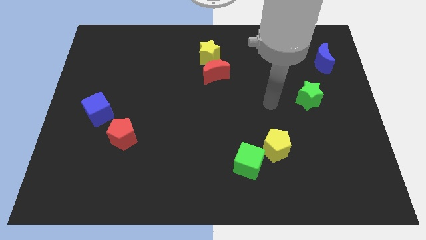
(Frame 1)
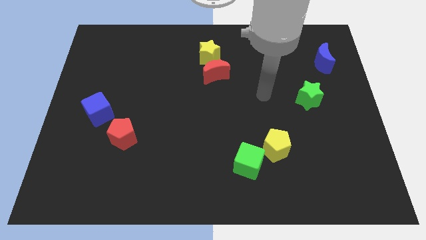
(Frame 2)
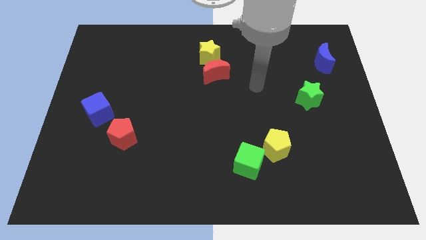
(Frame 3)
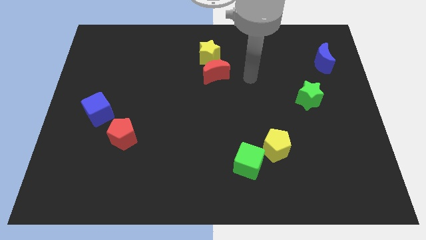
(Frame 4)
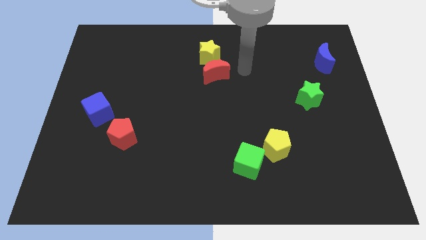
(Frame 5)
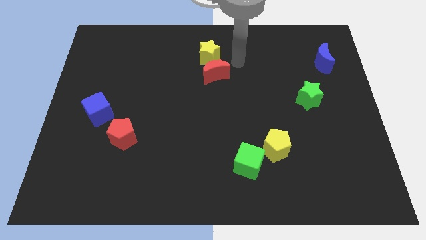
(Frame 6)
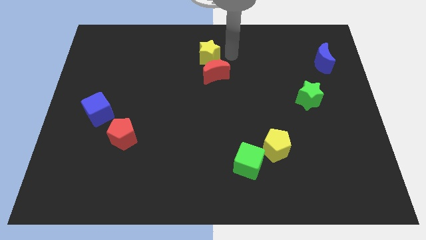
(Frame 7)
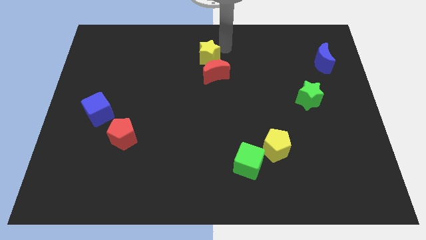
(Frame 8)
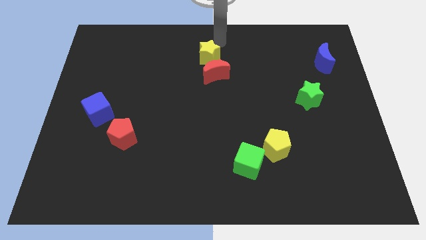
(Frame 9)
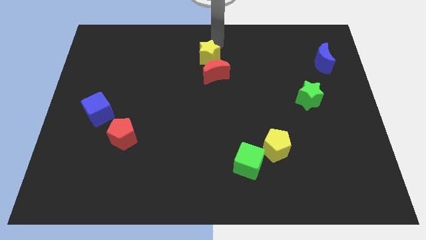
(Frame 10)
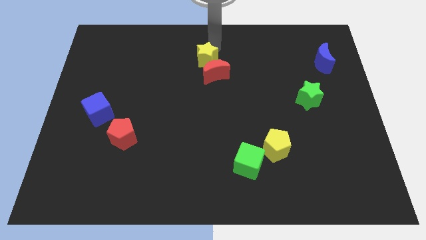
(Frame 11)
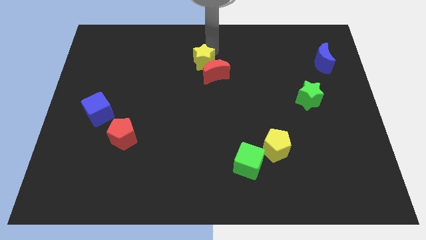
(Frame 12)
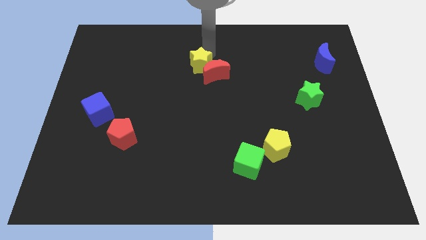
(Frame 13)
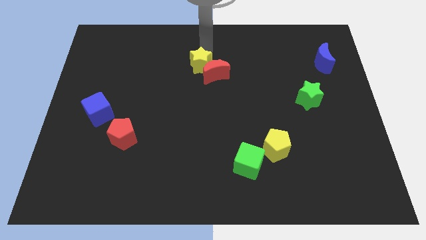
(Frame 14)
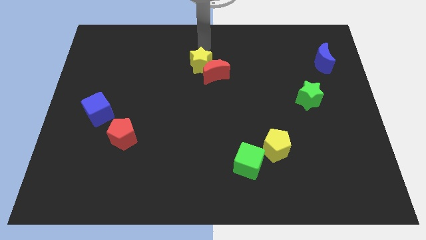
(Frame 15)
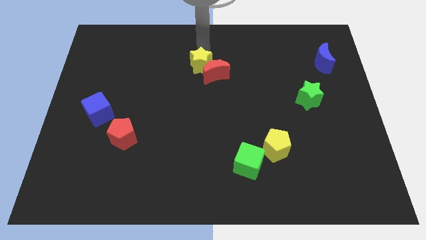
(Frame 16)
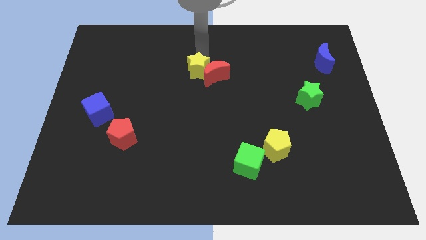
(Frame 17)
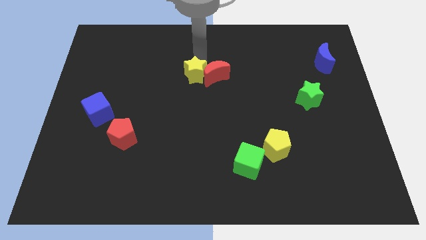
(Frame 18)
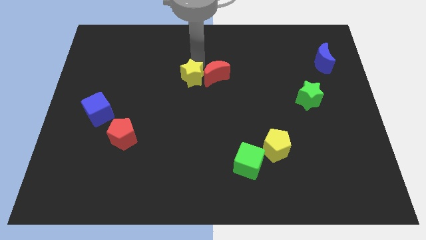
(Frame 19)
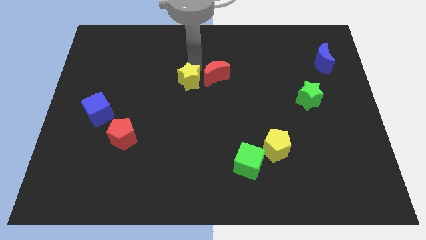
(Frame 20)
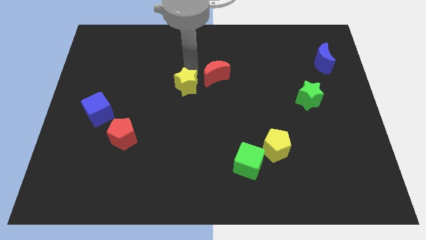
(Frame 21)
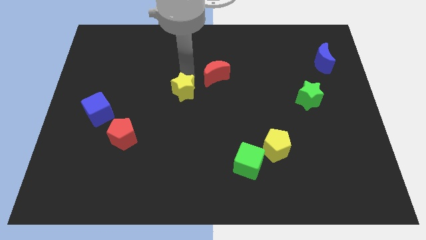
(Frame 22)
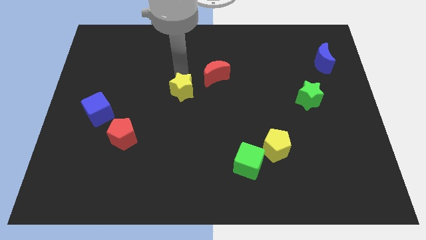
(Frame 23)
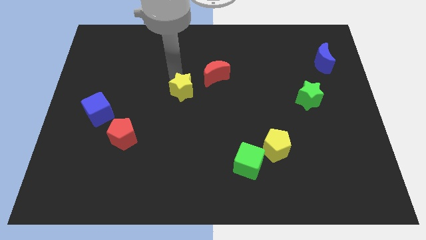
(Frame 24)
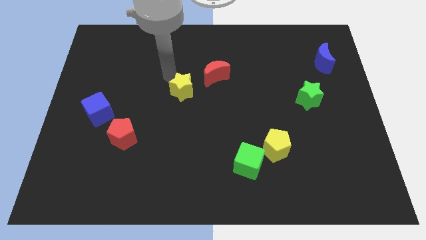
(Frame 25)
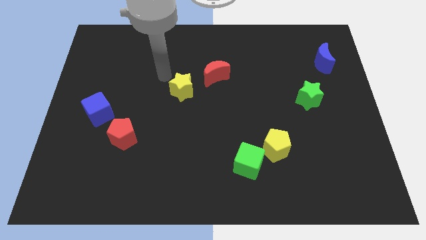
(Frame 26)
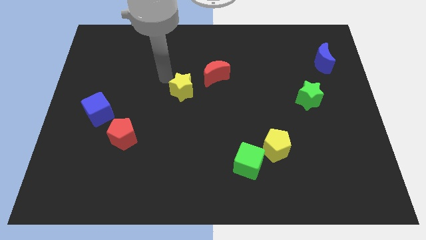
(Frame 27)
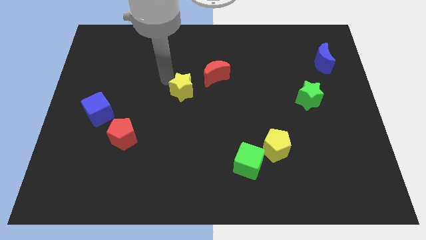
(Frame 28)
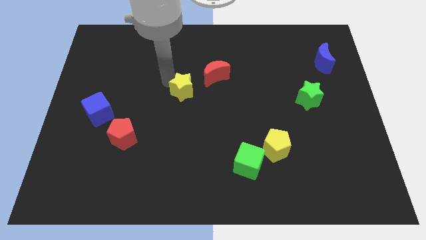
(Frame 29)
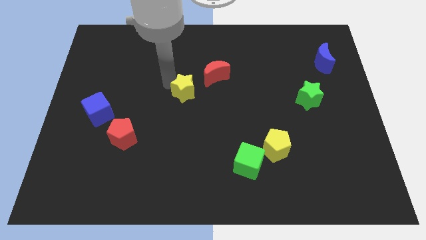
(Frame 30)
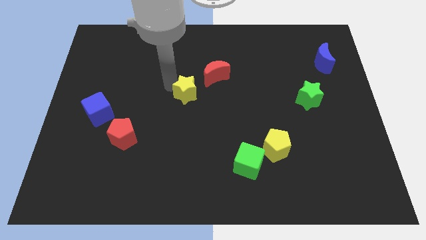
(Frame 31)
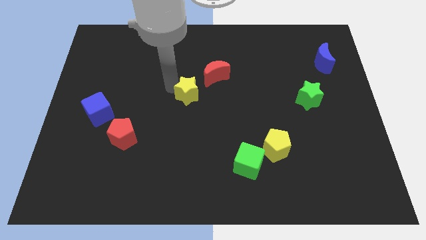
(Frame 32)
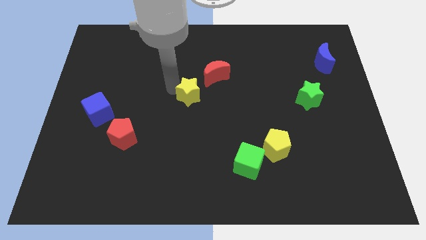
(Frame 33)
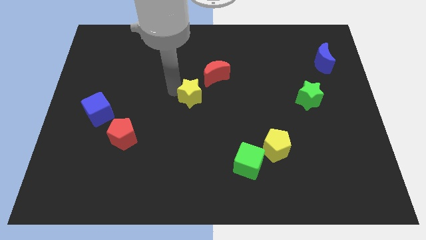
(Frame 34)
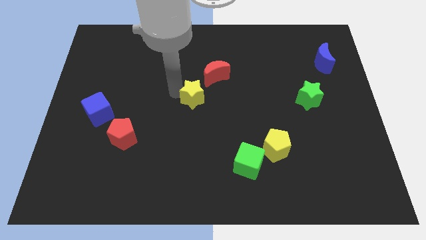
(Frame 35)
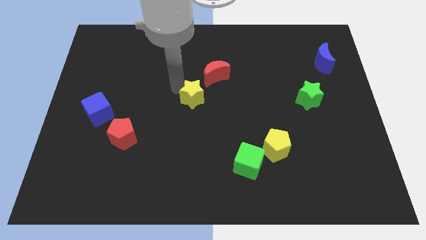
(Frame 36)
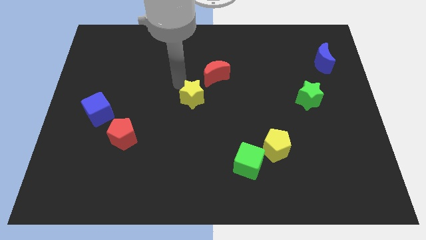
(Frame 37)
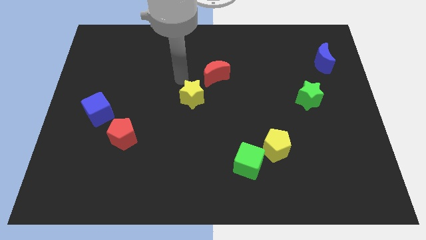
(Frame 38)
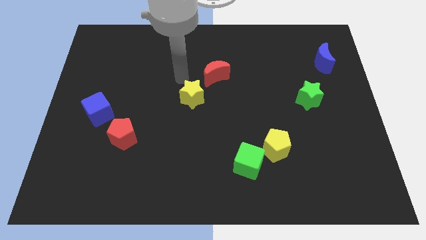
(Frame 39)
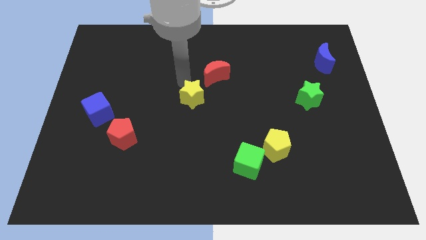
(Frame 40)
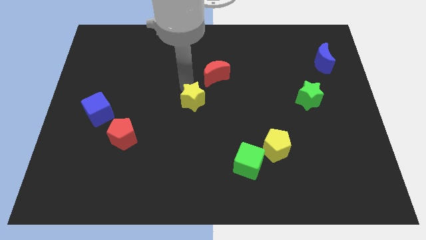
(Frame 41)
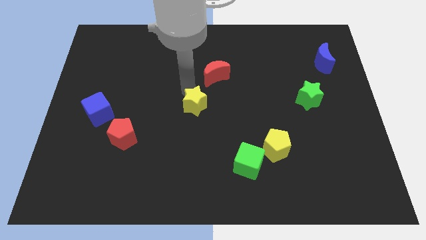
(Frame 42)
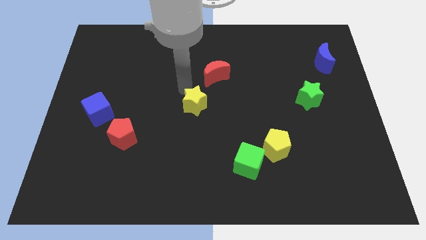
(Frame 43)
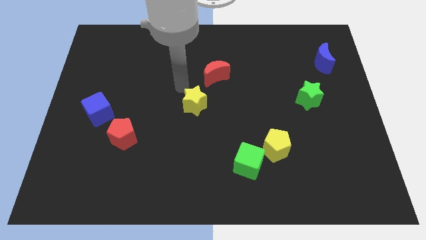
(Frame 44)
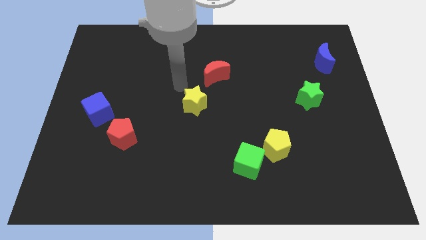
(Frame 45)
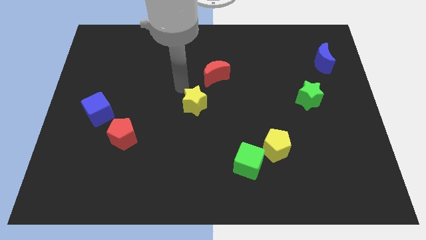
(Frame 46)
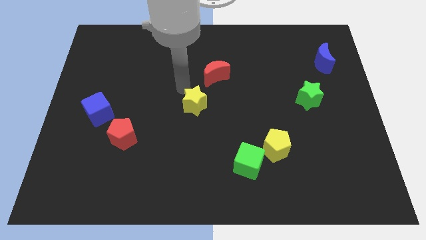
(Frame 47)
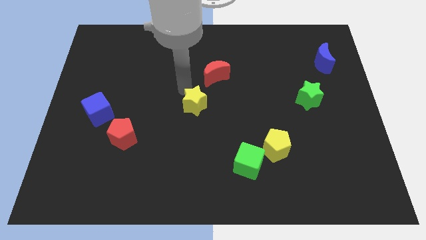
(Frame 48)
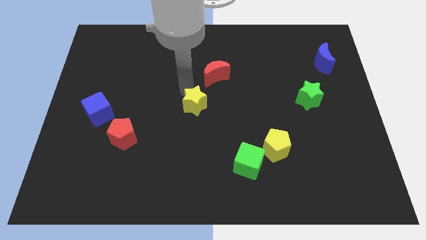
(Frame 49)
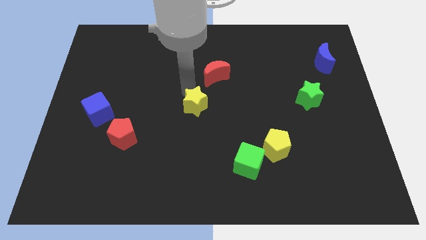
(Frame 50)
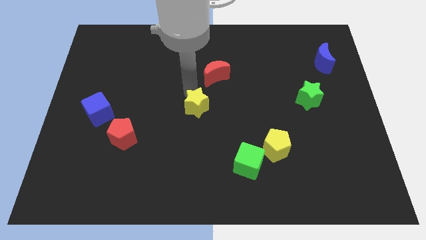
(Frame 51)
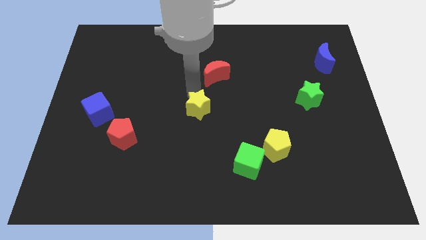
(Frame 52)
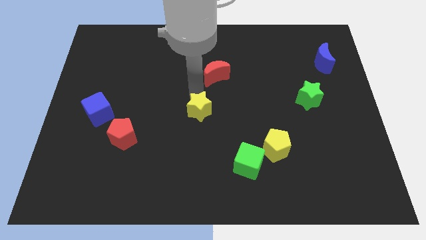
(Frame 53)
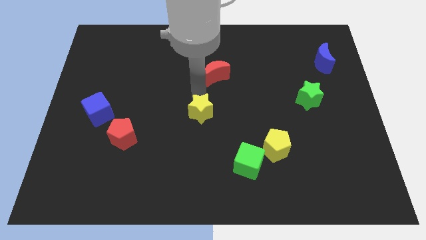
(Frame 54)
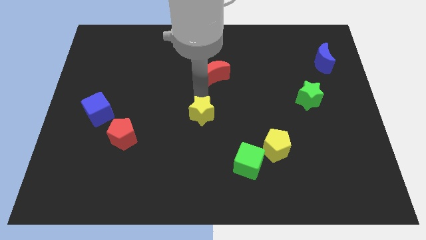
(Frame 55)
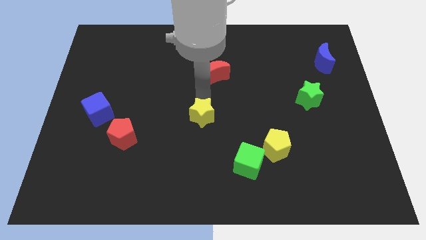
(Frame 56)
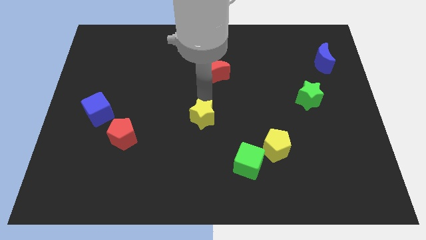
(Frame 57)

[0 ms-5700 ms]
slide the yellow star down

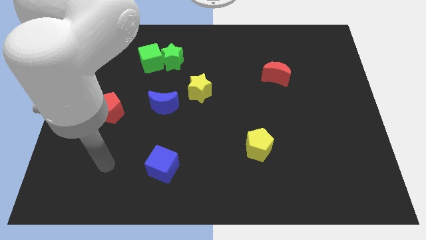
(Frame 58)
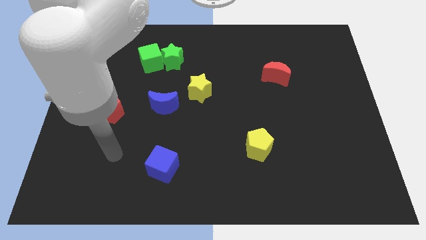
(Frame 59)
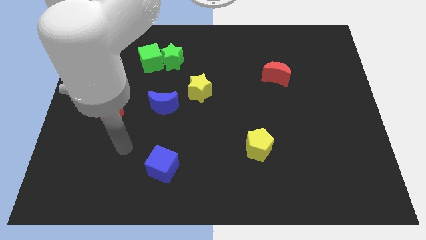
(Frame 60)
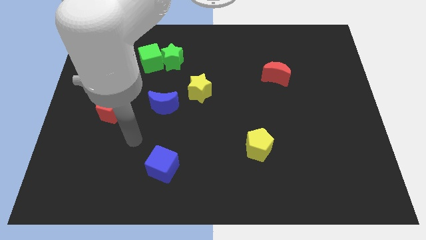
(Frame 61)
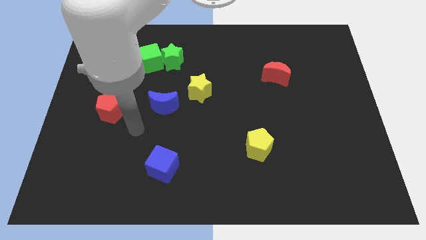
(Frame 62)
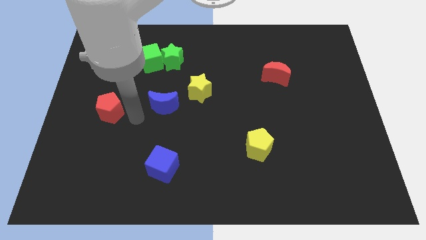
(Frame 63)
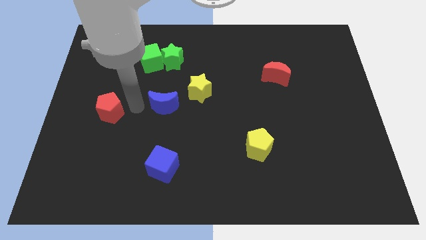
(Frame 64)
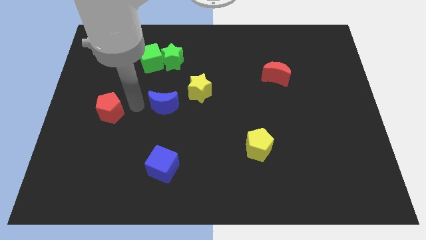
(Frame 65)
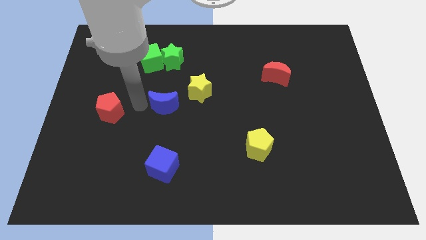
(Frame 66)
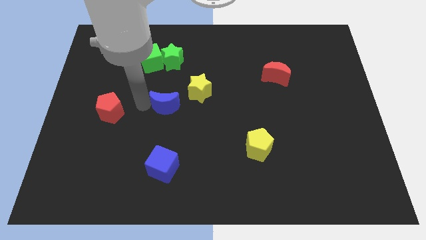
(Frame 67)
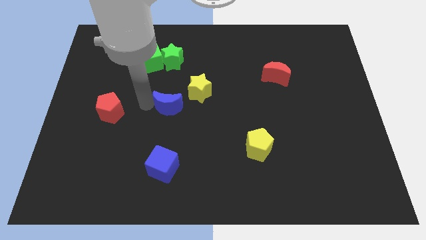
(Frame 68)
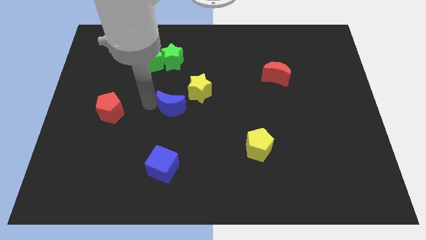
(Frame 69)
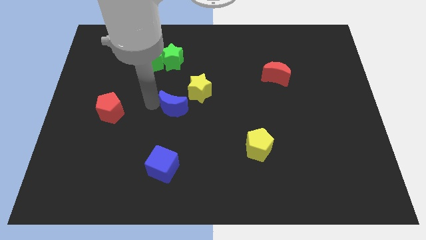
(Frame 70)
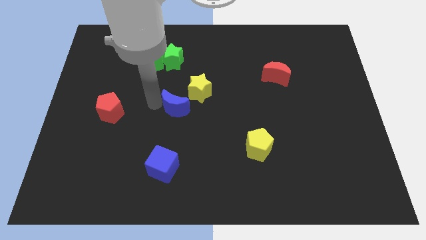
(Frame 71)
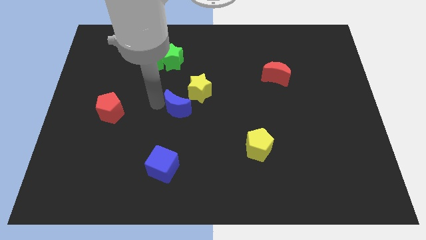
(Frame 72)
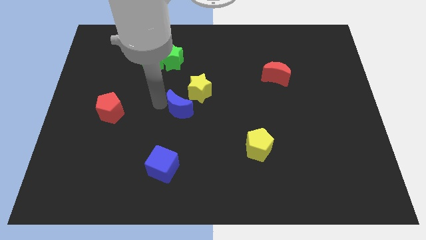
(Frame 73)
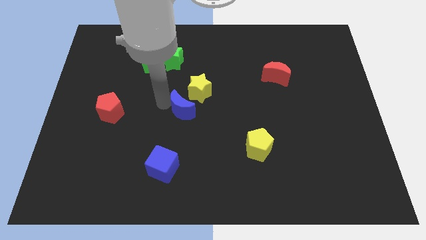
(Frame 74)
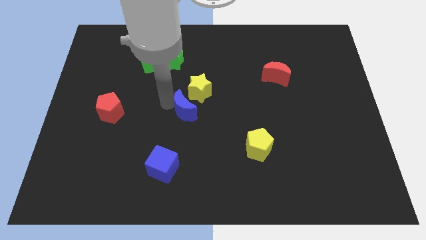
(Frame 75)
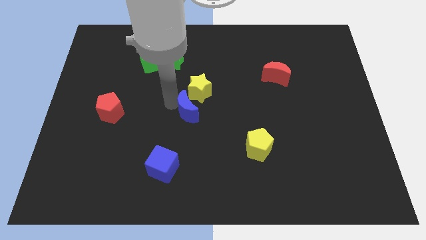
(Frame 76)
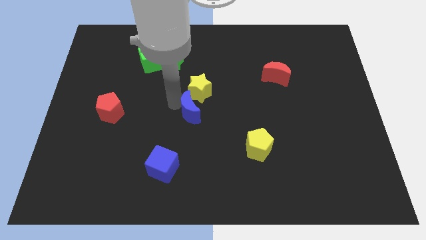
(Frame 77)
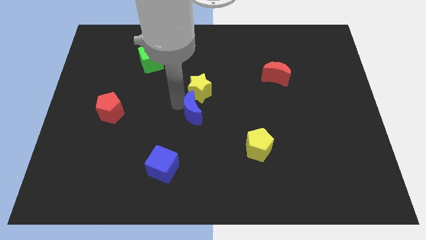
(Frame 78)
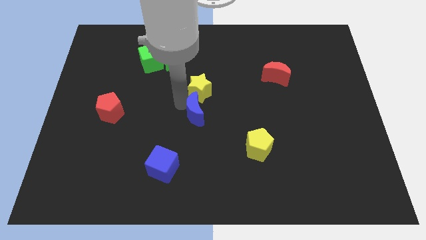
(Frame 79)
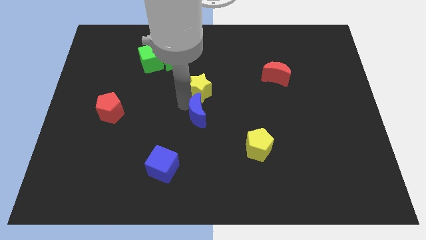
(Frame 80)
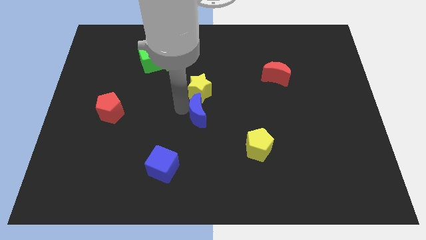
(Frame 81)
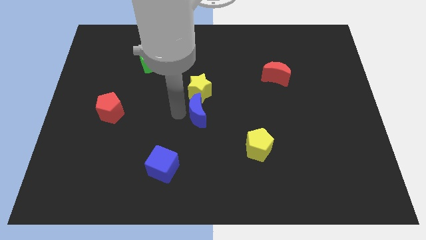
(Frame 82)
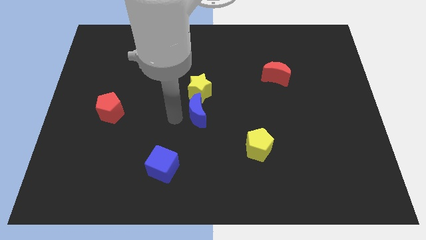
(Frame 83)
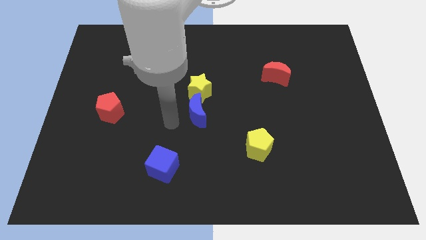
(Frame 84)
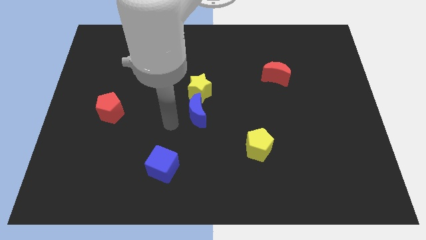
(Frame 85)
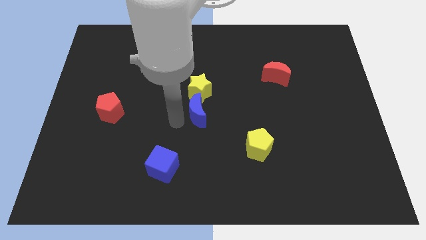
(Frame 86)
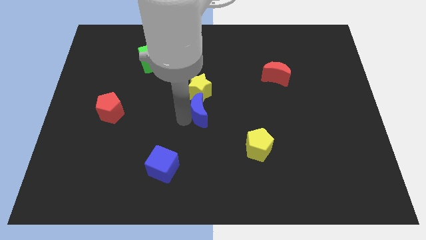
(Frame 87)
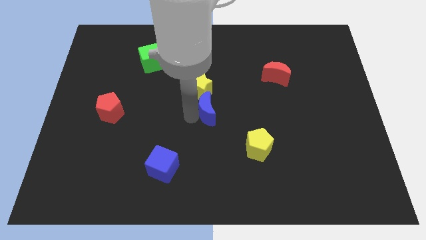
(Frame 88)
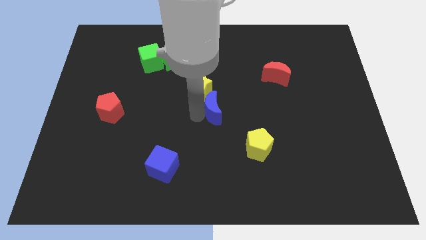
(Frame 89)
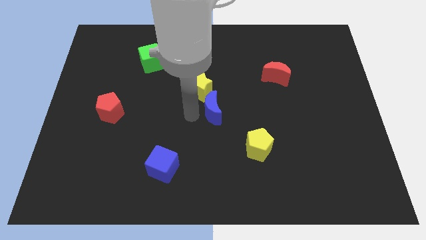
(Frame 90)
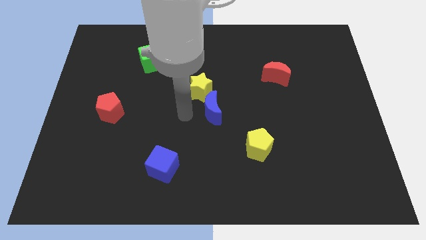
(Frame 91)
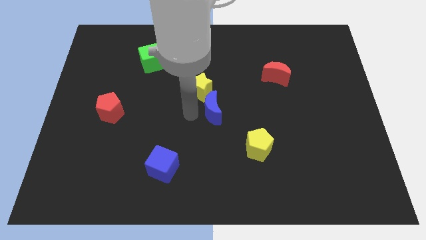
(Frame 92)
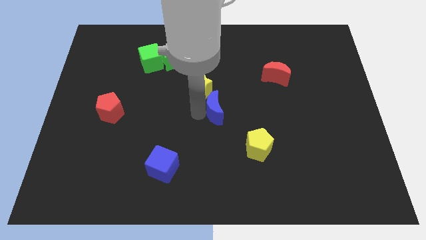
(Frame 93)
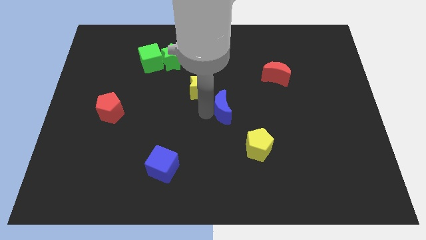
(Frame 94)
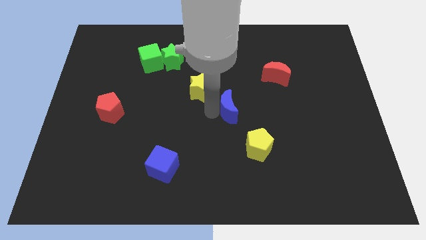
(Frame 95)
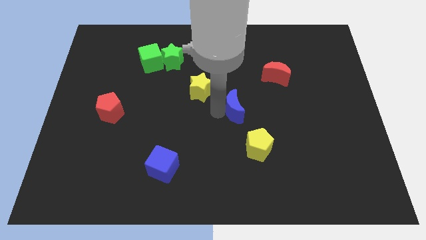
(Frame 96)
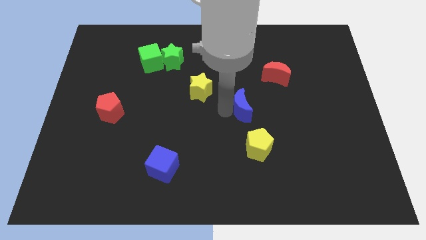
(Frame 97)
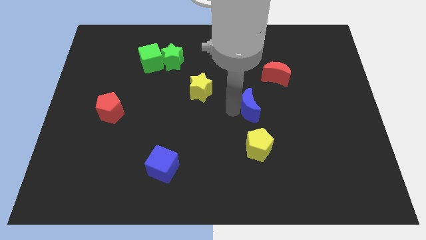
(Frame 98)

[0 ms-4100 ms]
push the blue moon right
